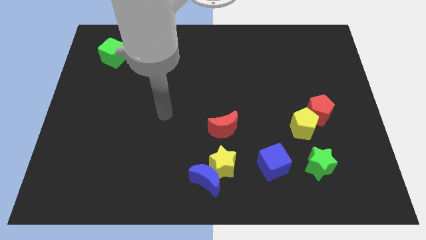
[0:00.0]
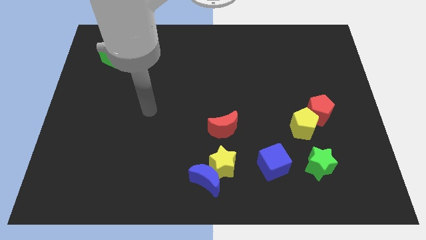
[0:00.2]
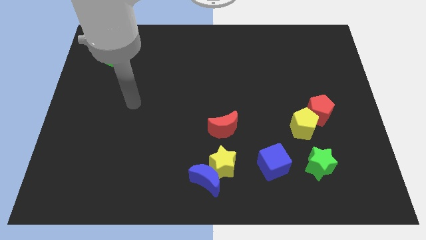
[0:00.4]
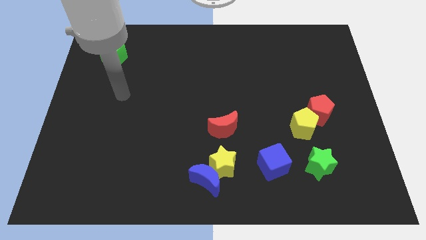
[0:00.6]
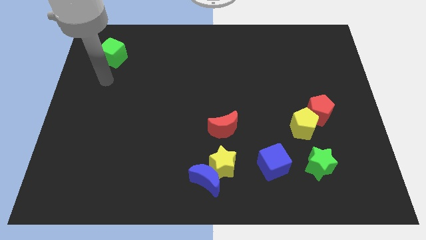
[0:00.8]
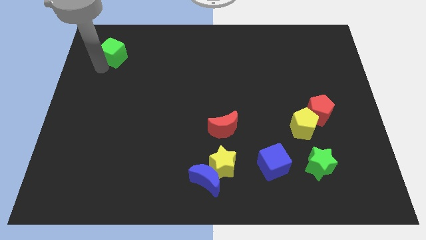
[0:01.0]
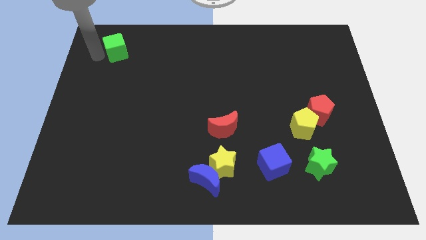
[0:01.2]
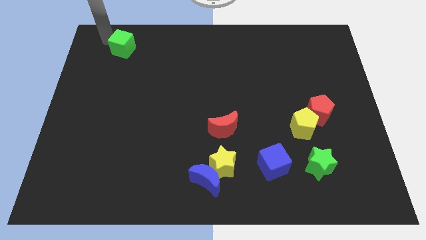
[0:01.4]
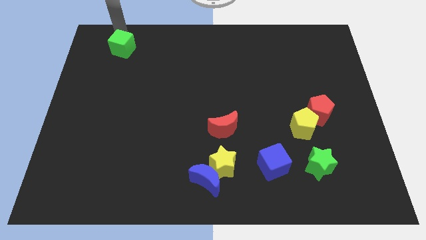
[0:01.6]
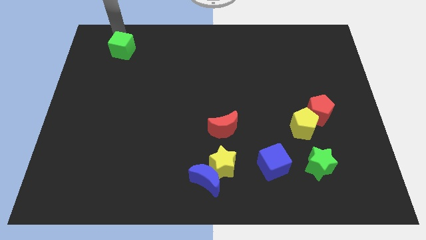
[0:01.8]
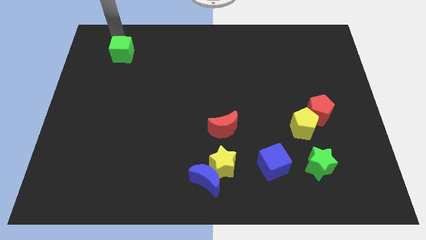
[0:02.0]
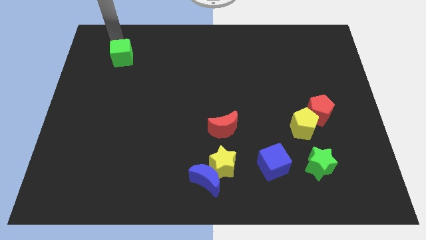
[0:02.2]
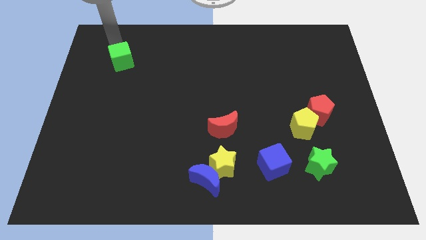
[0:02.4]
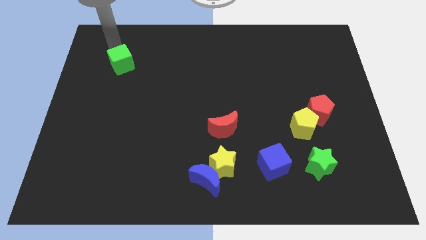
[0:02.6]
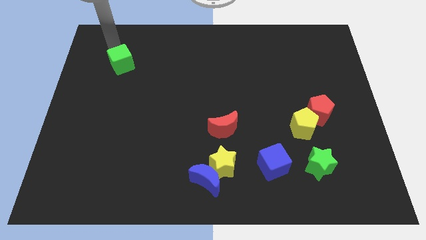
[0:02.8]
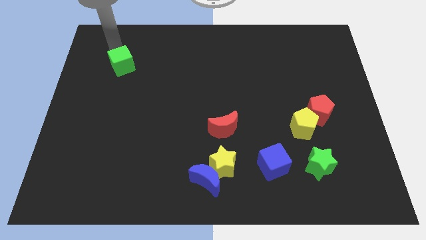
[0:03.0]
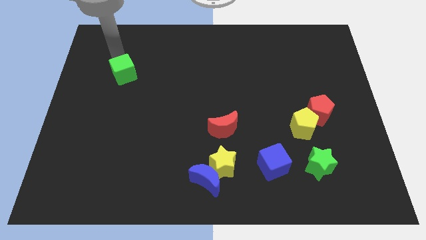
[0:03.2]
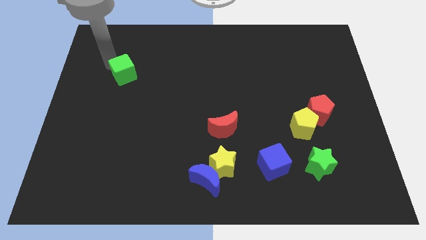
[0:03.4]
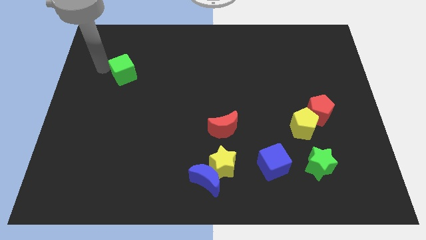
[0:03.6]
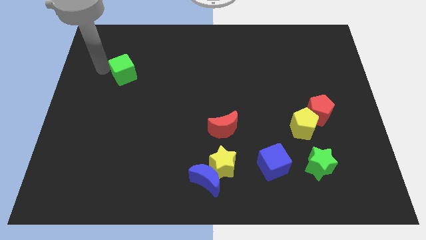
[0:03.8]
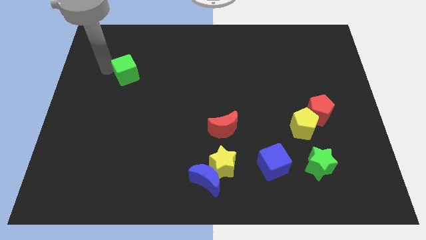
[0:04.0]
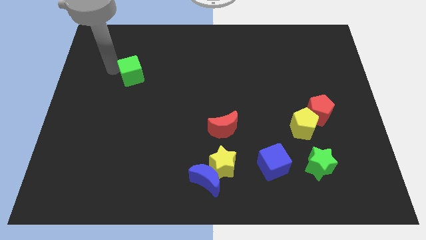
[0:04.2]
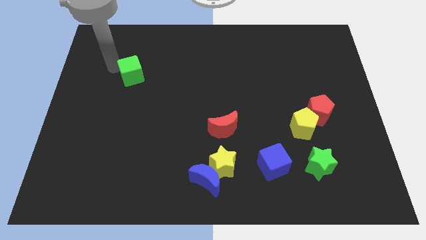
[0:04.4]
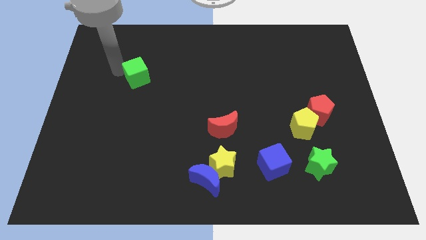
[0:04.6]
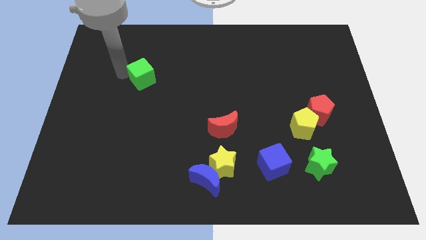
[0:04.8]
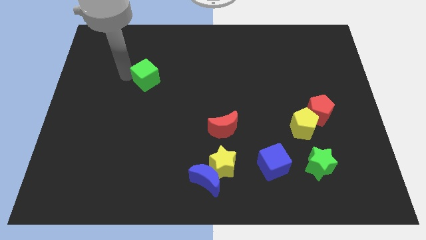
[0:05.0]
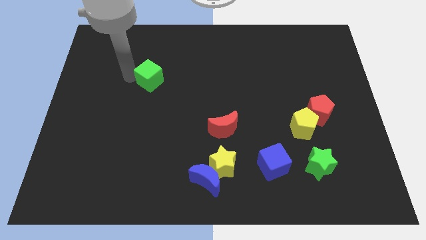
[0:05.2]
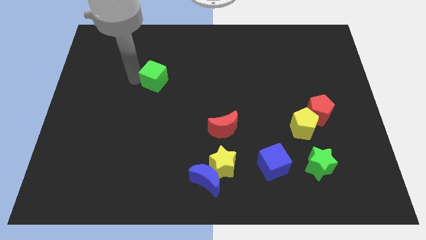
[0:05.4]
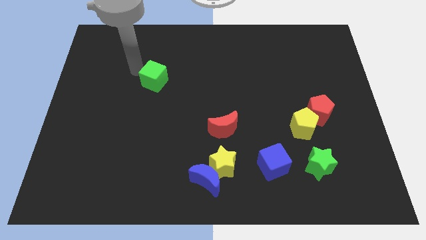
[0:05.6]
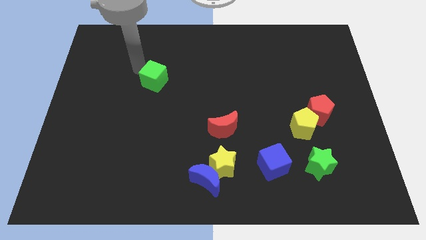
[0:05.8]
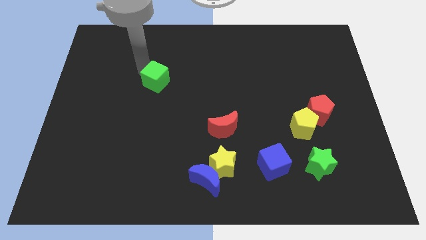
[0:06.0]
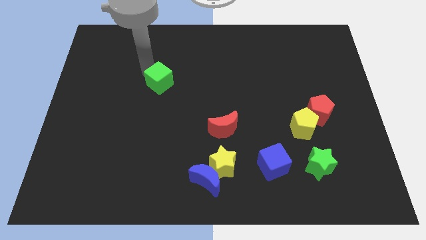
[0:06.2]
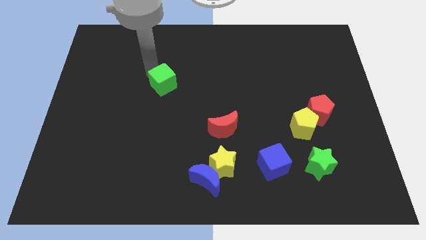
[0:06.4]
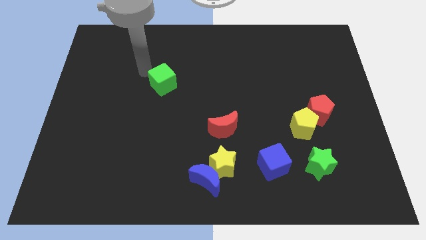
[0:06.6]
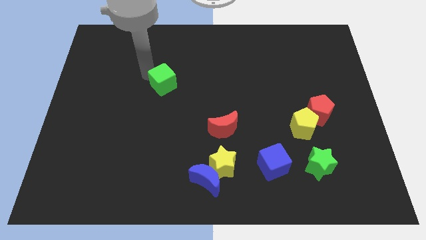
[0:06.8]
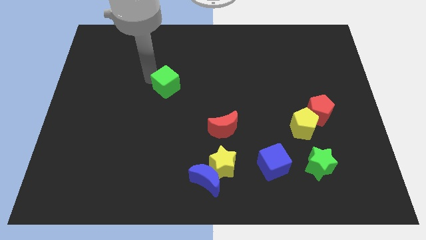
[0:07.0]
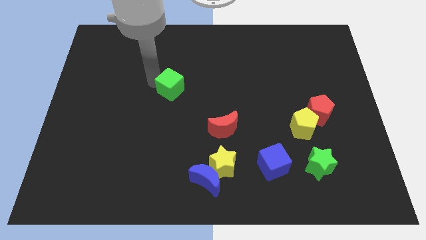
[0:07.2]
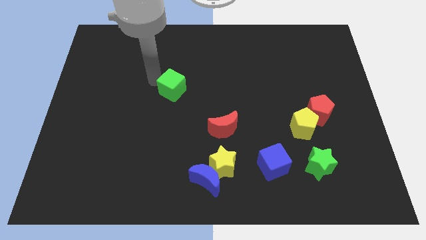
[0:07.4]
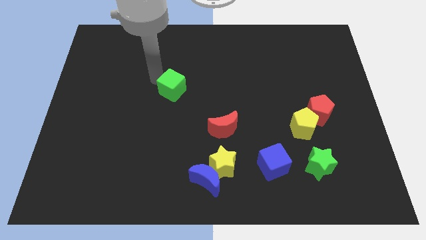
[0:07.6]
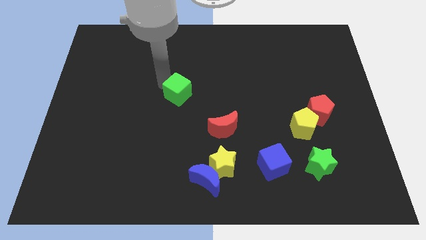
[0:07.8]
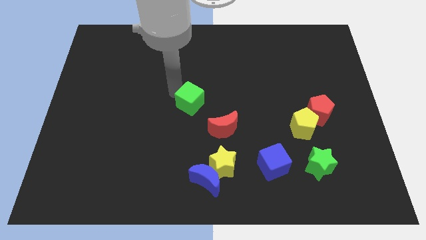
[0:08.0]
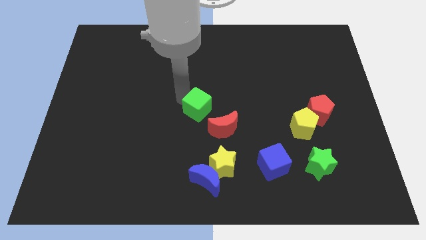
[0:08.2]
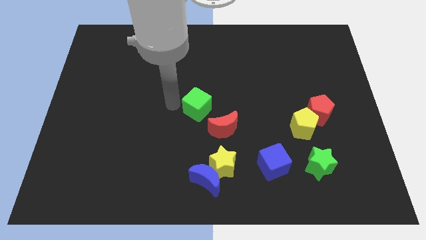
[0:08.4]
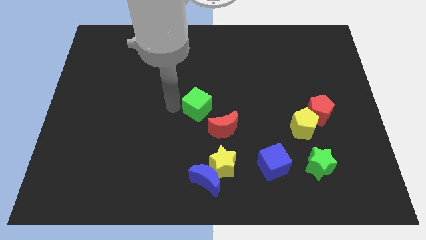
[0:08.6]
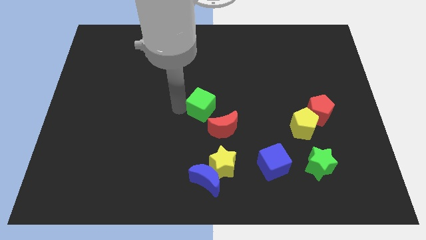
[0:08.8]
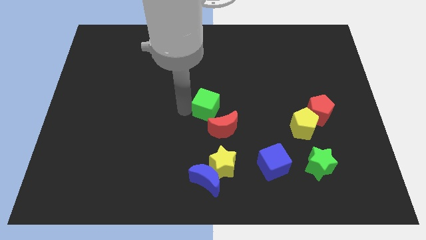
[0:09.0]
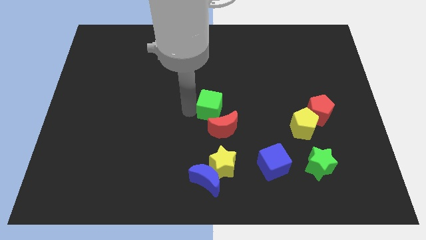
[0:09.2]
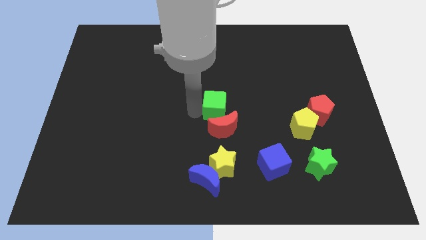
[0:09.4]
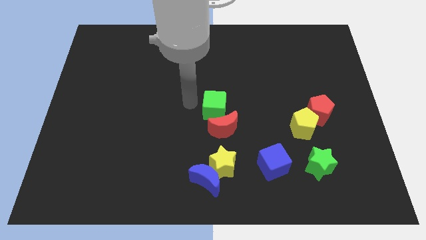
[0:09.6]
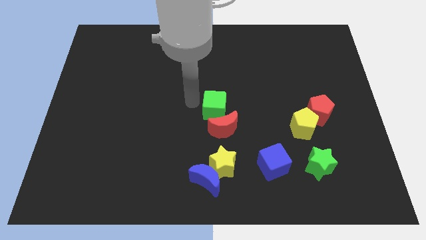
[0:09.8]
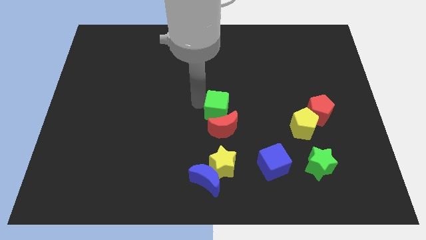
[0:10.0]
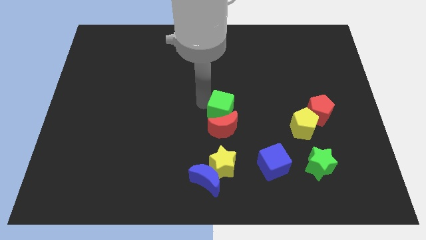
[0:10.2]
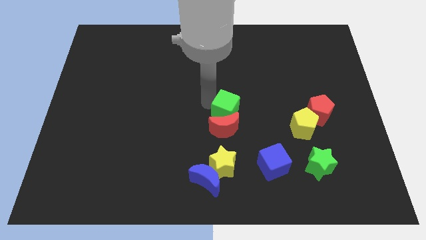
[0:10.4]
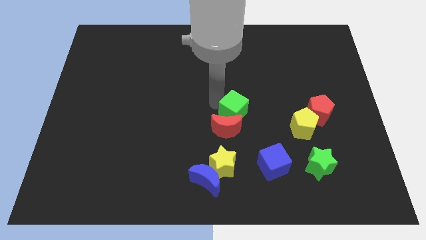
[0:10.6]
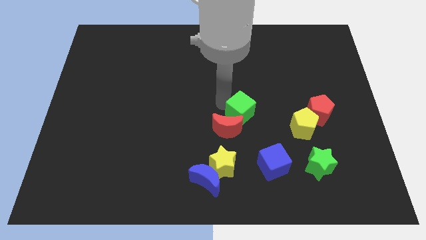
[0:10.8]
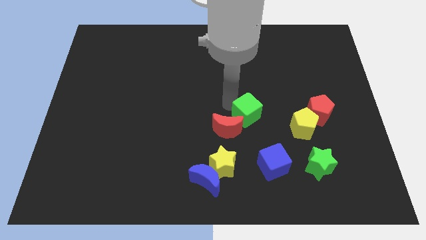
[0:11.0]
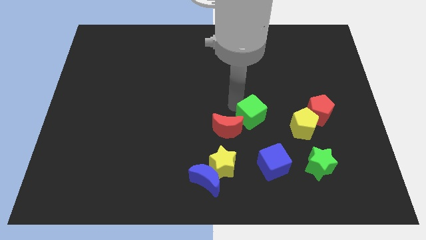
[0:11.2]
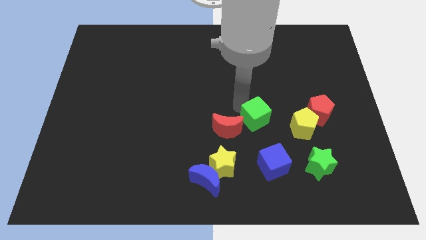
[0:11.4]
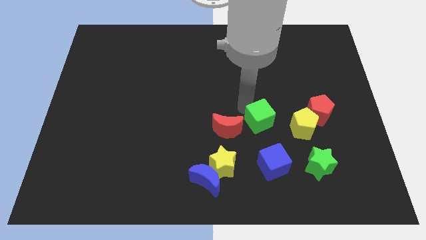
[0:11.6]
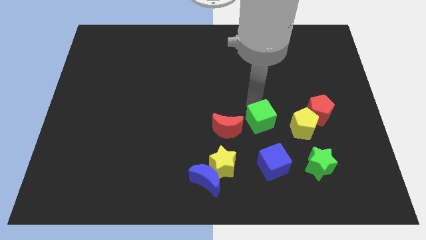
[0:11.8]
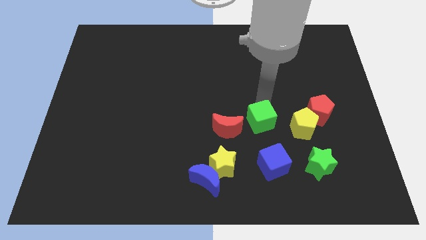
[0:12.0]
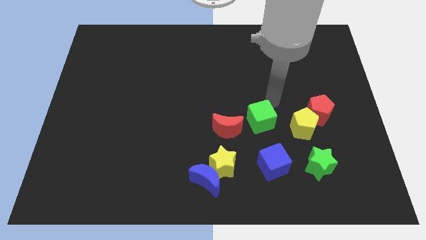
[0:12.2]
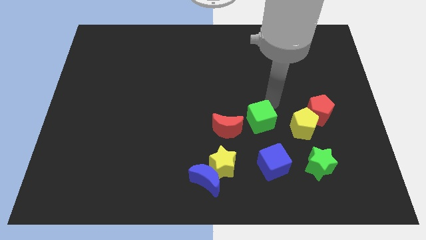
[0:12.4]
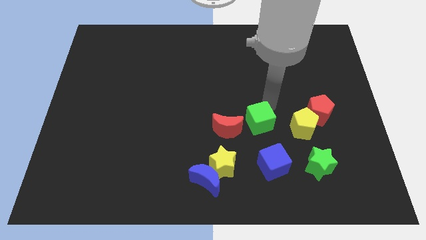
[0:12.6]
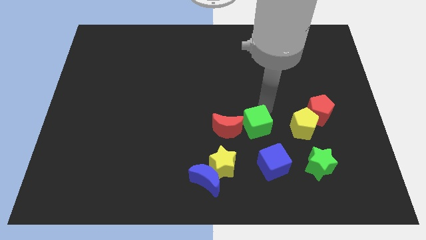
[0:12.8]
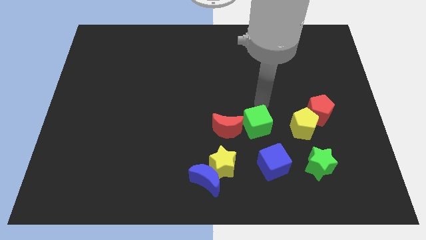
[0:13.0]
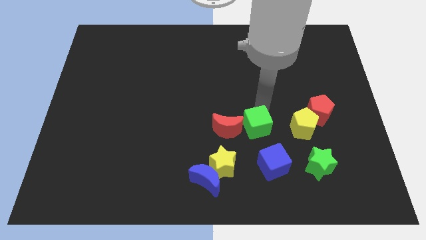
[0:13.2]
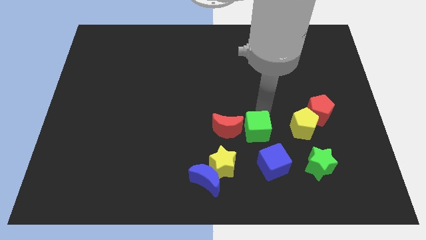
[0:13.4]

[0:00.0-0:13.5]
move the green cube to the bottom right side of the red moon

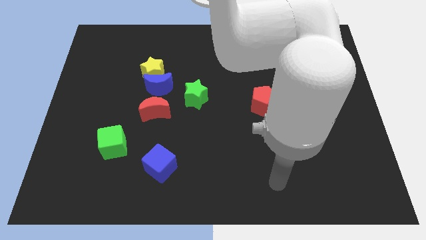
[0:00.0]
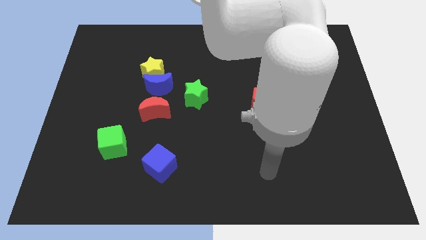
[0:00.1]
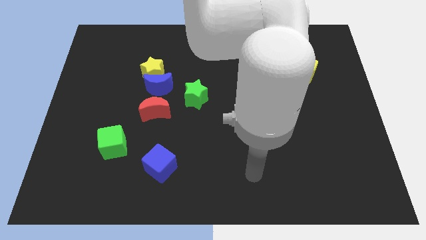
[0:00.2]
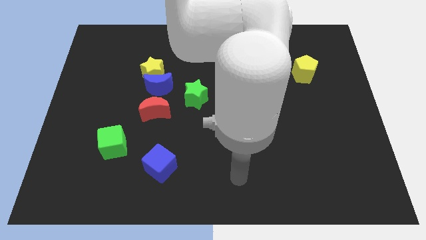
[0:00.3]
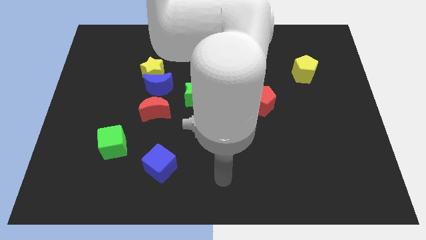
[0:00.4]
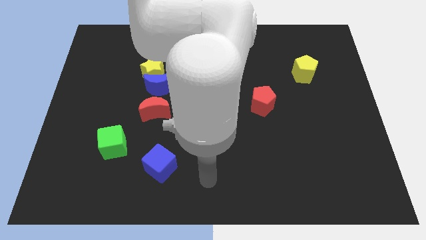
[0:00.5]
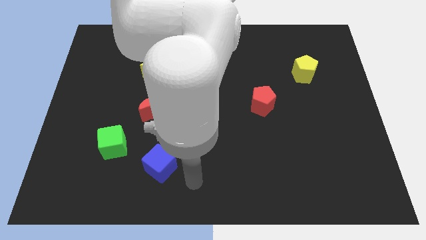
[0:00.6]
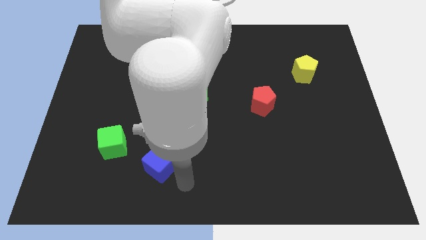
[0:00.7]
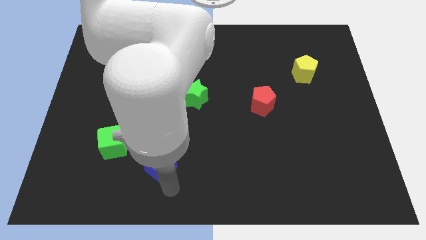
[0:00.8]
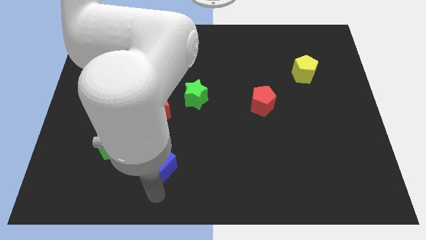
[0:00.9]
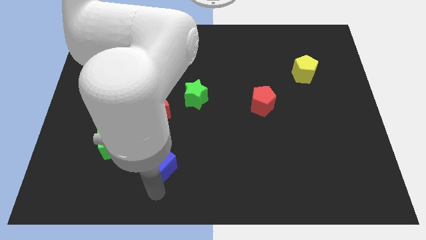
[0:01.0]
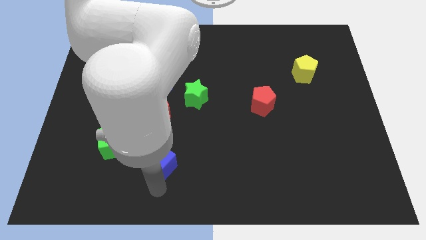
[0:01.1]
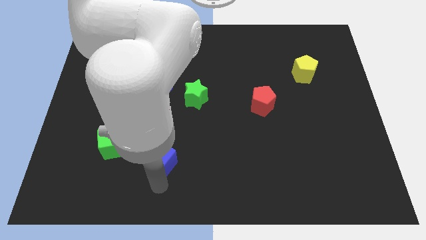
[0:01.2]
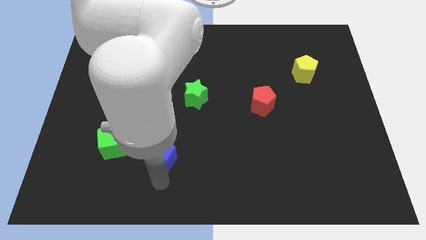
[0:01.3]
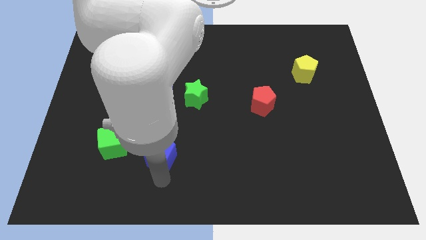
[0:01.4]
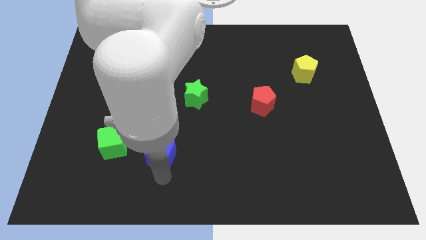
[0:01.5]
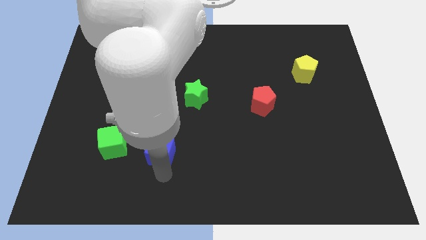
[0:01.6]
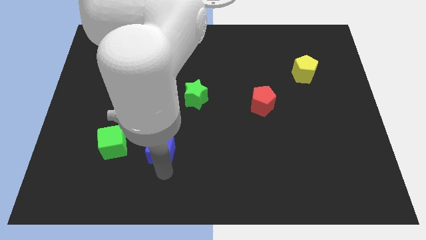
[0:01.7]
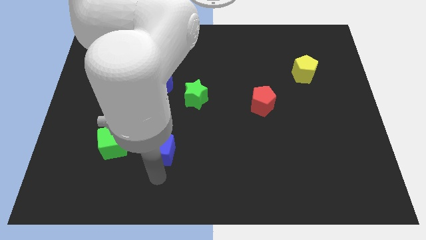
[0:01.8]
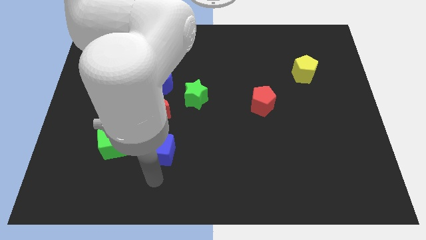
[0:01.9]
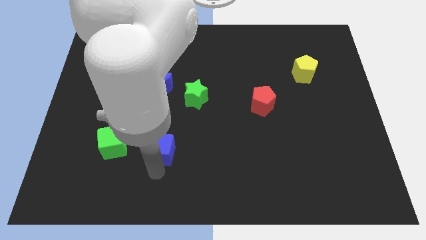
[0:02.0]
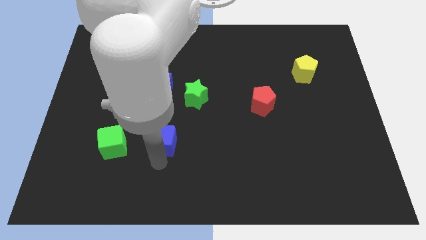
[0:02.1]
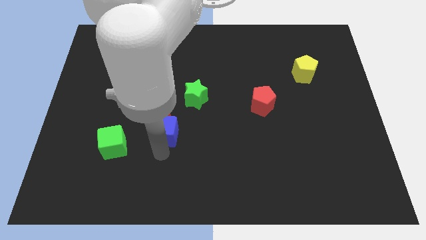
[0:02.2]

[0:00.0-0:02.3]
move the blue cube to the bottom left side of the green star
